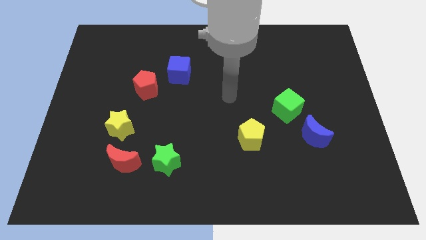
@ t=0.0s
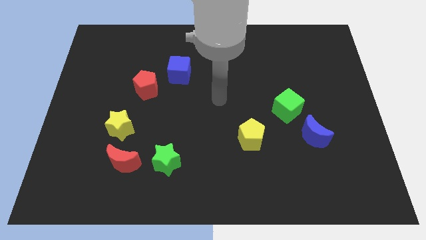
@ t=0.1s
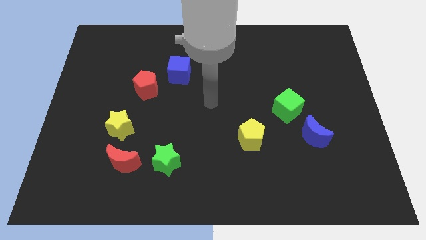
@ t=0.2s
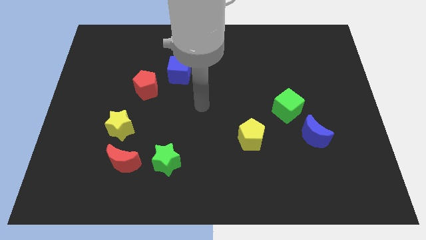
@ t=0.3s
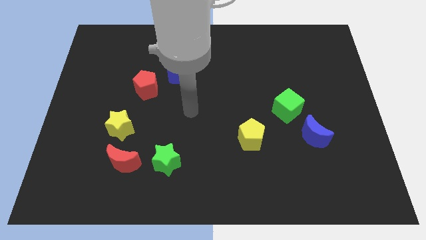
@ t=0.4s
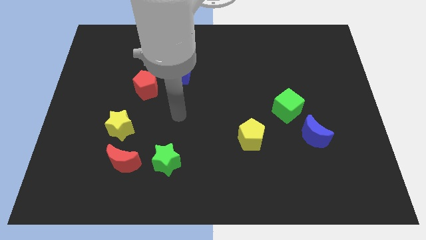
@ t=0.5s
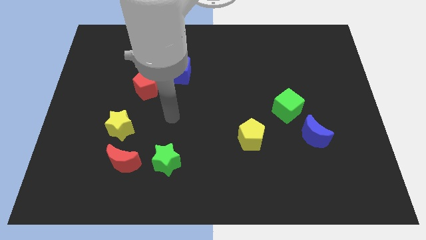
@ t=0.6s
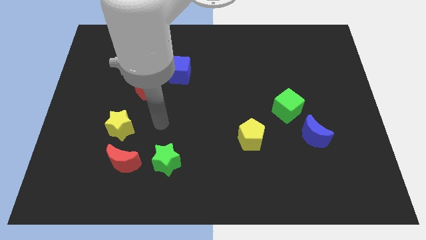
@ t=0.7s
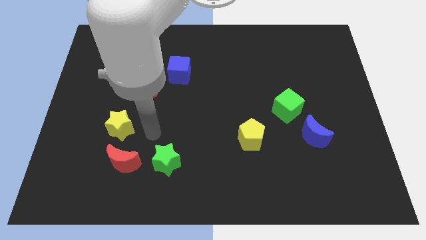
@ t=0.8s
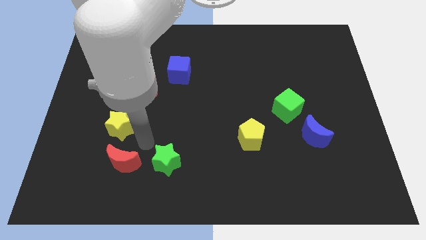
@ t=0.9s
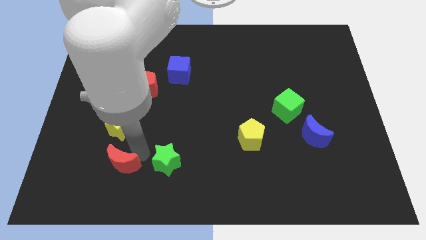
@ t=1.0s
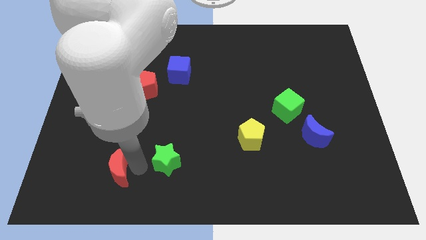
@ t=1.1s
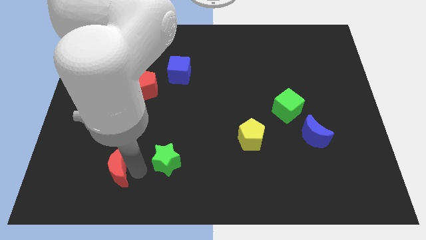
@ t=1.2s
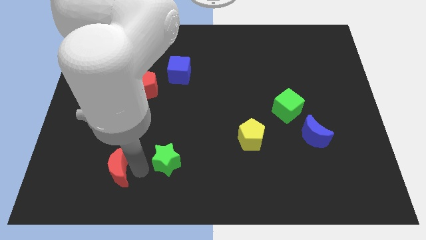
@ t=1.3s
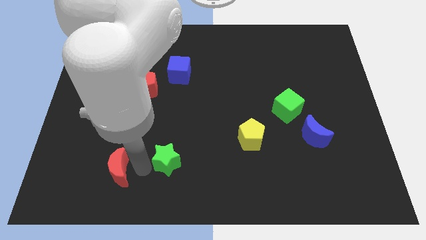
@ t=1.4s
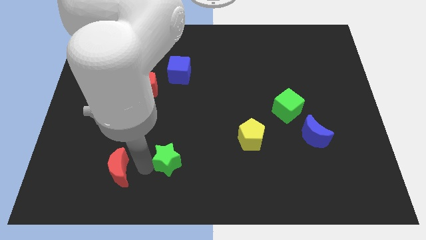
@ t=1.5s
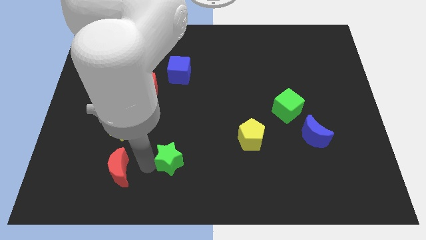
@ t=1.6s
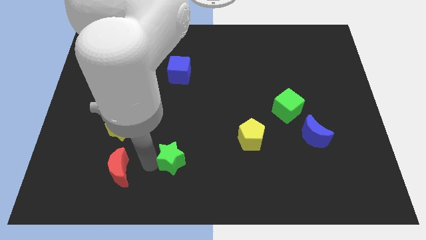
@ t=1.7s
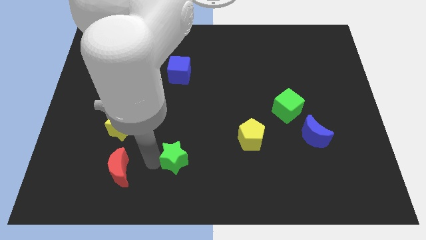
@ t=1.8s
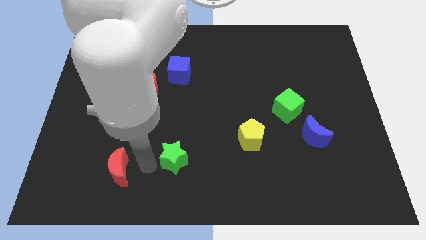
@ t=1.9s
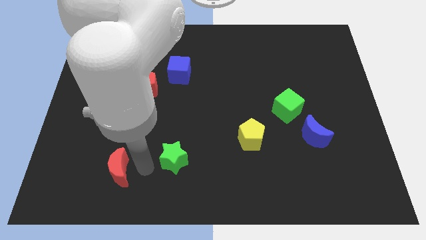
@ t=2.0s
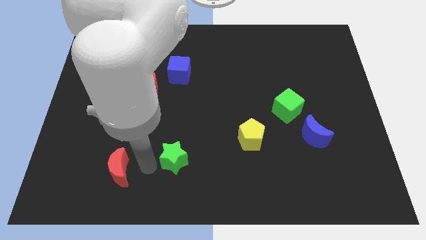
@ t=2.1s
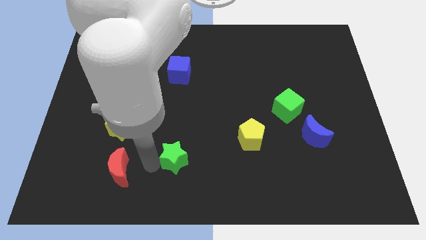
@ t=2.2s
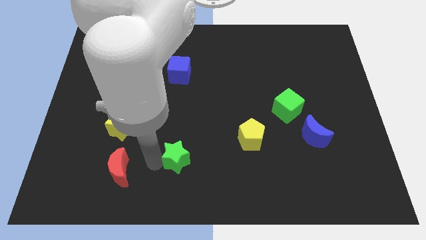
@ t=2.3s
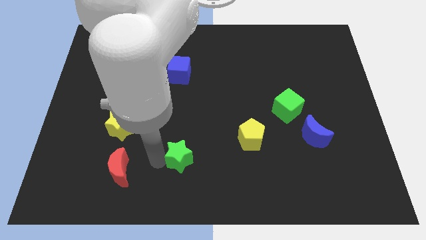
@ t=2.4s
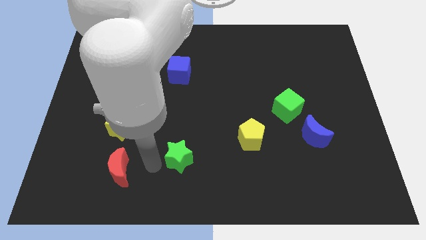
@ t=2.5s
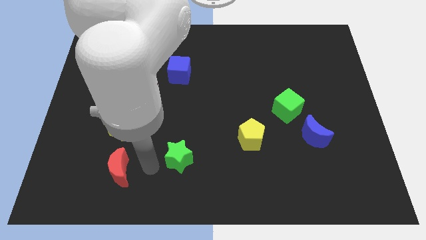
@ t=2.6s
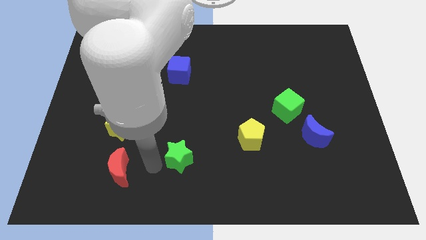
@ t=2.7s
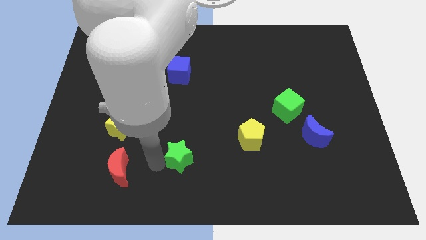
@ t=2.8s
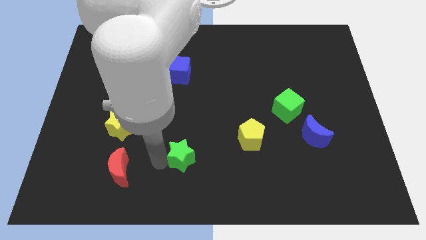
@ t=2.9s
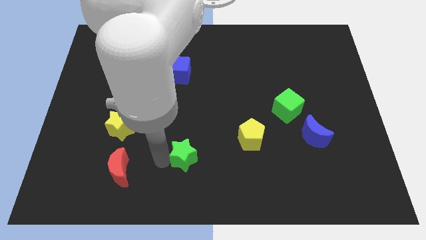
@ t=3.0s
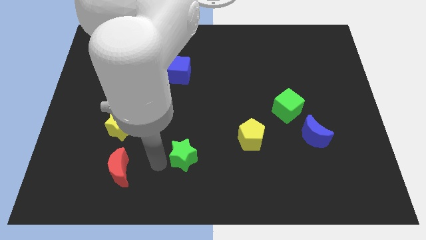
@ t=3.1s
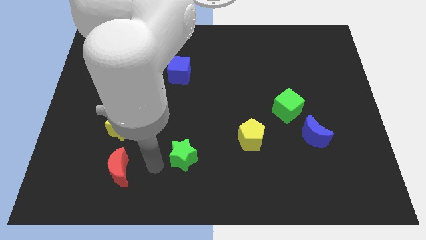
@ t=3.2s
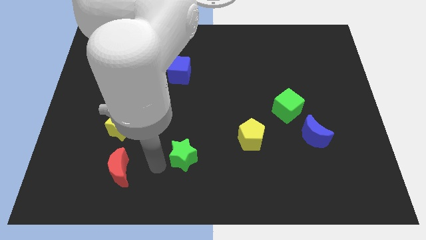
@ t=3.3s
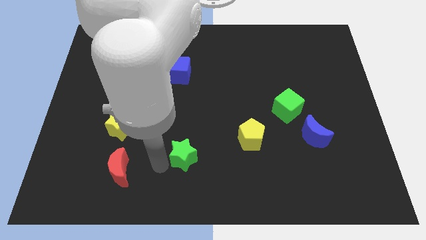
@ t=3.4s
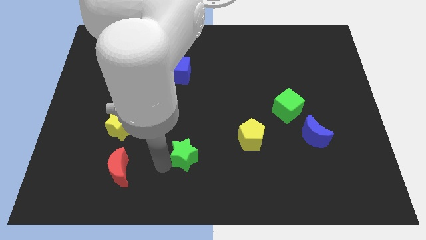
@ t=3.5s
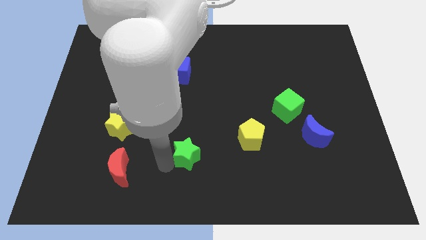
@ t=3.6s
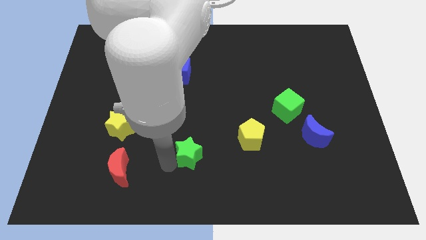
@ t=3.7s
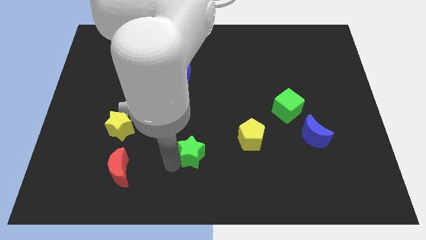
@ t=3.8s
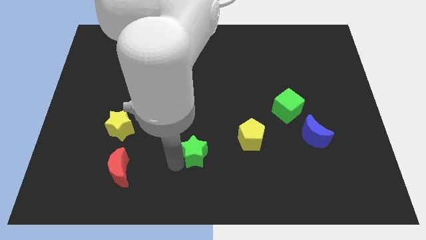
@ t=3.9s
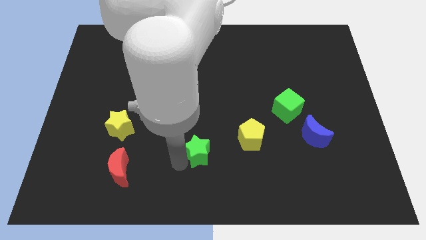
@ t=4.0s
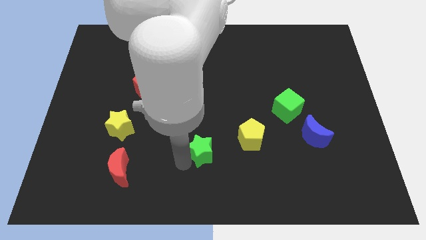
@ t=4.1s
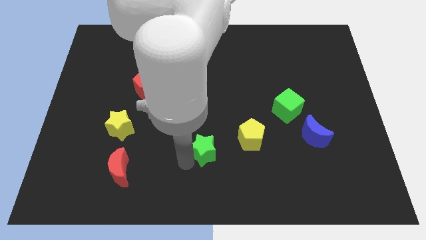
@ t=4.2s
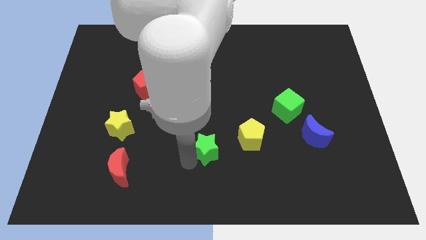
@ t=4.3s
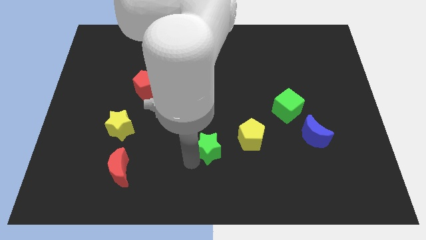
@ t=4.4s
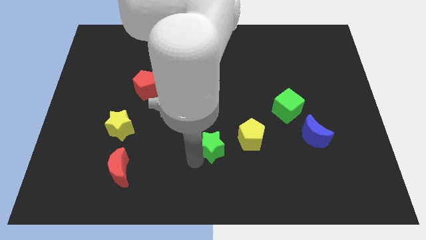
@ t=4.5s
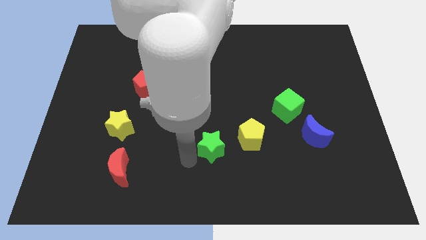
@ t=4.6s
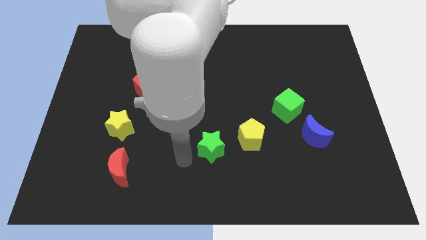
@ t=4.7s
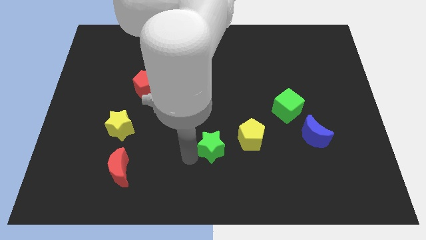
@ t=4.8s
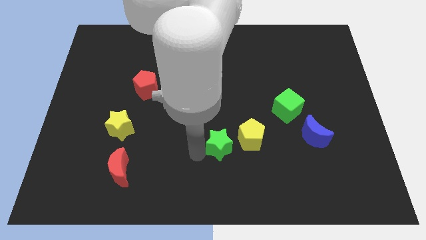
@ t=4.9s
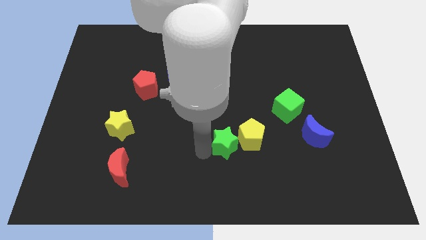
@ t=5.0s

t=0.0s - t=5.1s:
push the green star towards the yellow pentagon

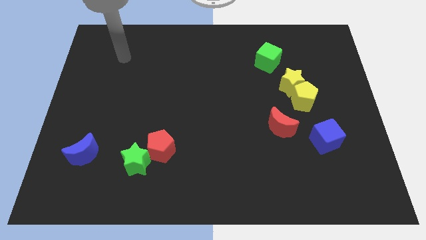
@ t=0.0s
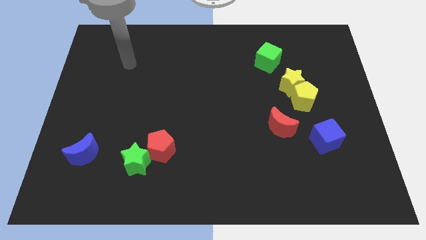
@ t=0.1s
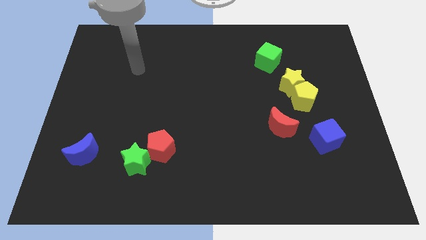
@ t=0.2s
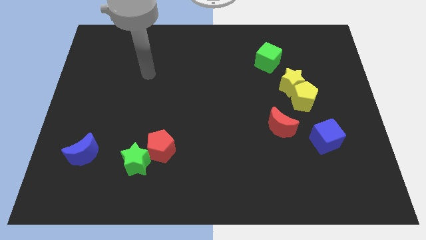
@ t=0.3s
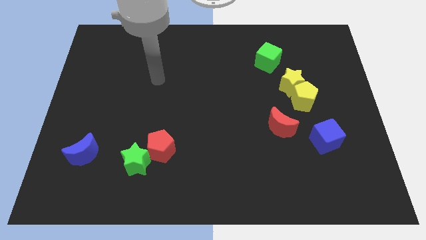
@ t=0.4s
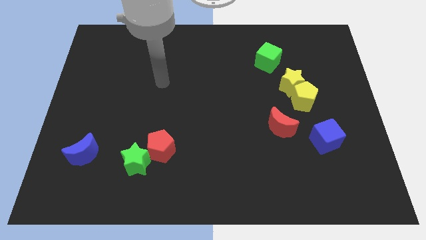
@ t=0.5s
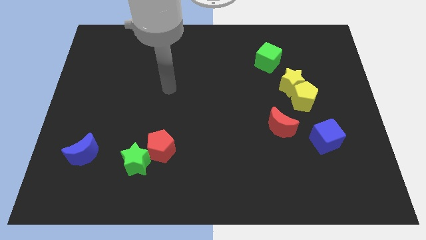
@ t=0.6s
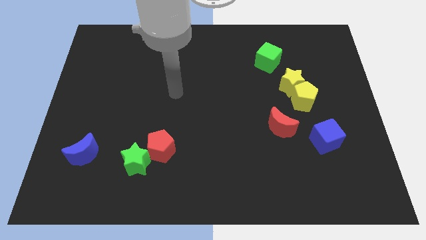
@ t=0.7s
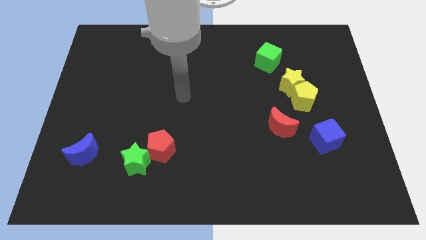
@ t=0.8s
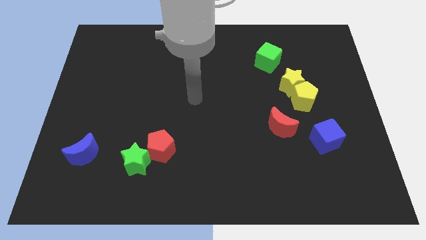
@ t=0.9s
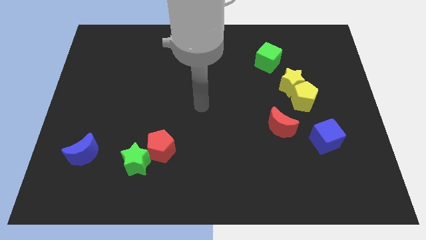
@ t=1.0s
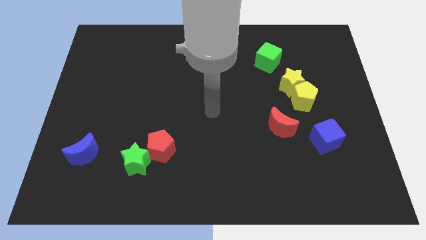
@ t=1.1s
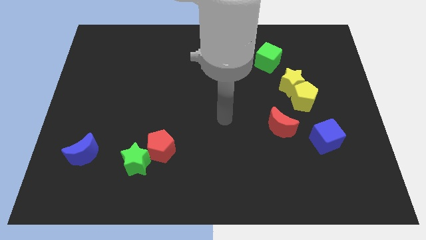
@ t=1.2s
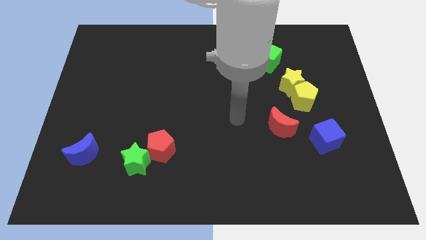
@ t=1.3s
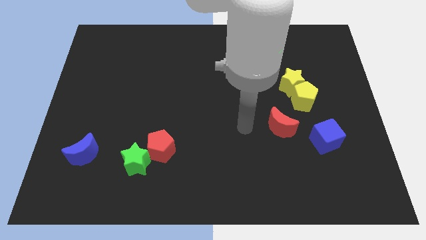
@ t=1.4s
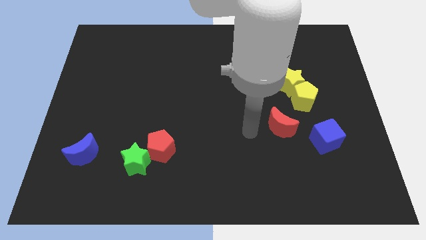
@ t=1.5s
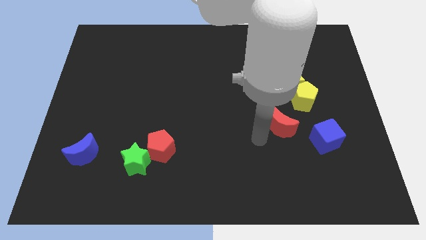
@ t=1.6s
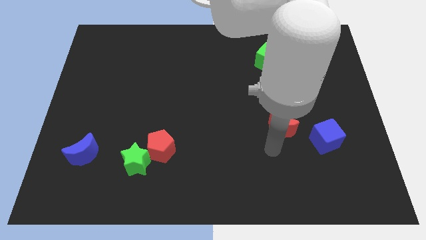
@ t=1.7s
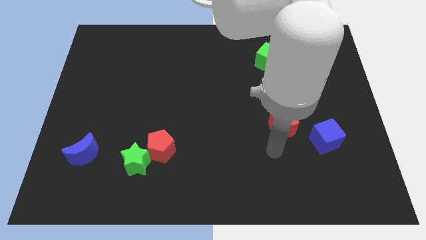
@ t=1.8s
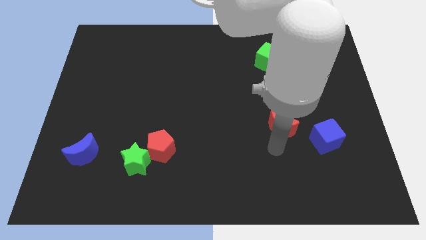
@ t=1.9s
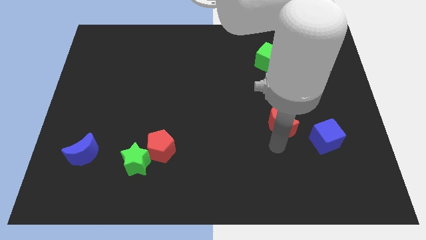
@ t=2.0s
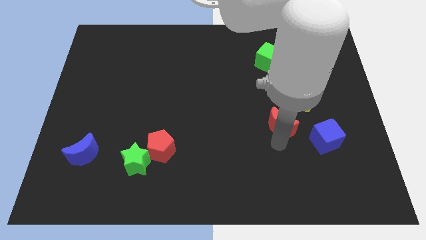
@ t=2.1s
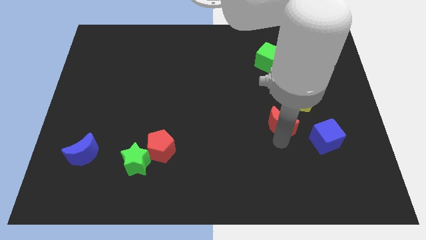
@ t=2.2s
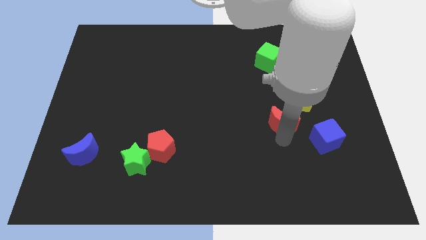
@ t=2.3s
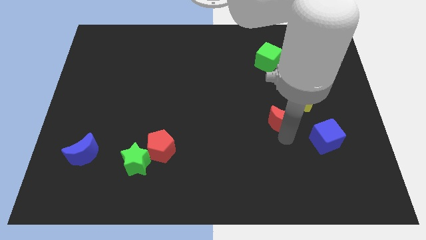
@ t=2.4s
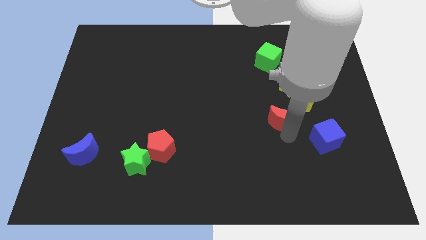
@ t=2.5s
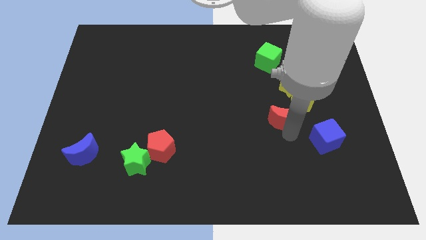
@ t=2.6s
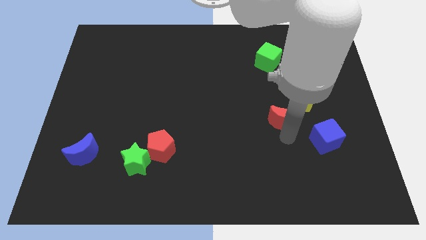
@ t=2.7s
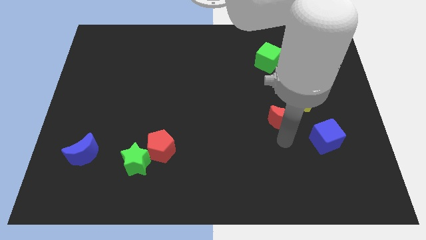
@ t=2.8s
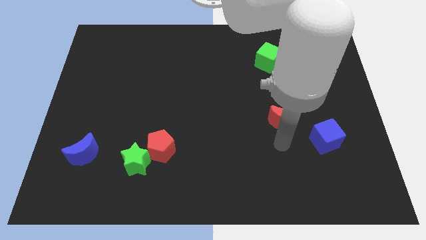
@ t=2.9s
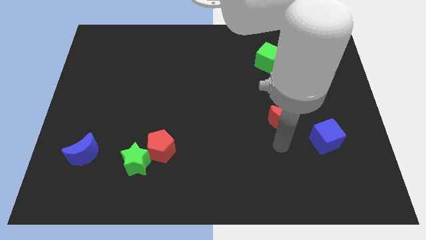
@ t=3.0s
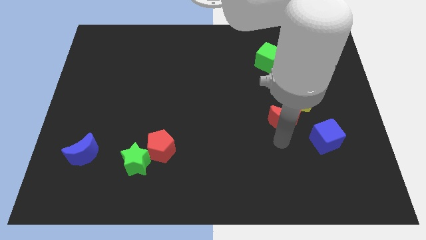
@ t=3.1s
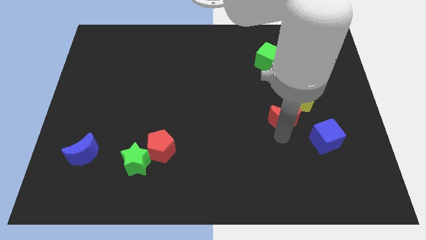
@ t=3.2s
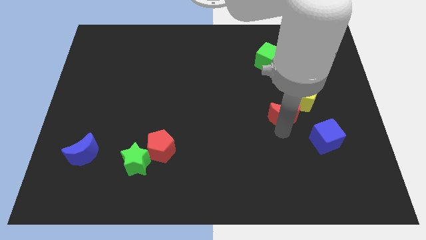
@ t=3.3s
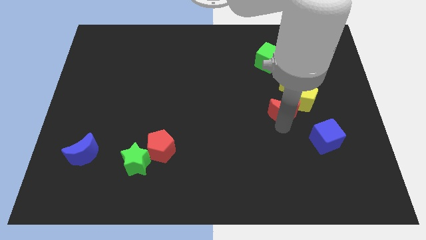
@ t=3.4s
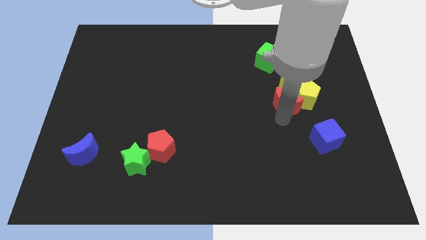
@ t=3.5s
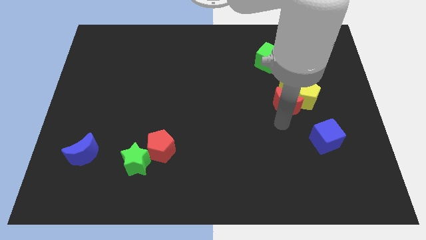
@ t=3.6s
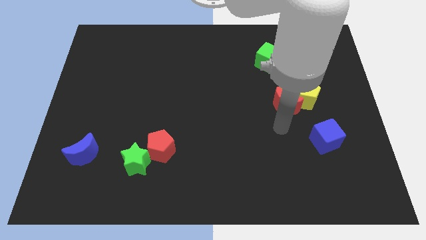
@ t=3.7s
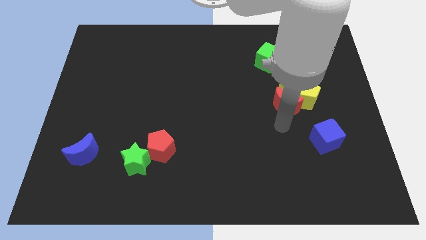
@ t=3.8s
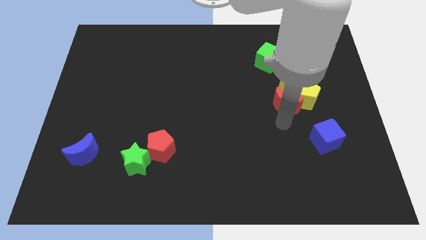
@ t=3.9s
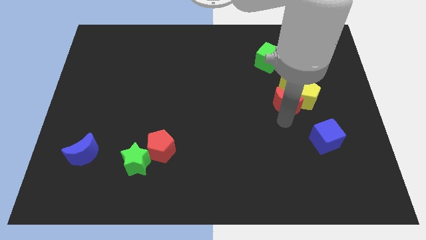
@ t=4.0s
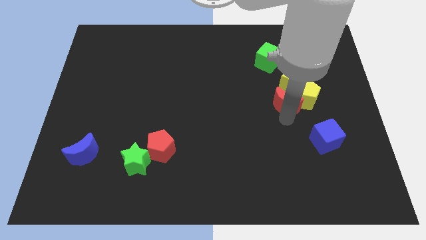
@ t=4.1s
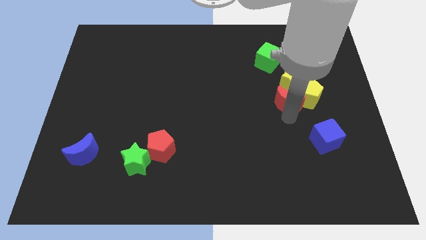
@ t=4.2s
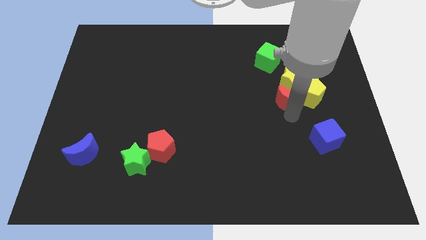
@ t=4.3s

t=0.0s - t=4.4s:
slide the red moon towards the yellow star
